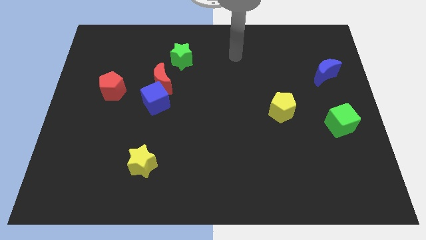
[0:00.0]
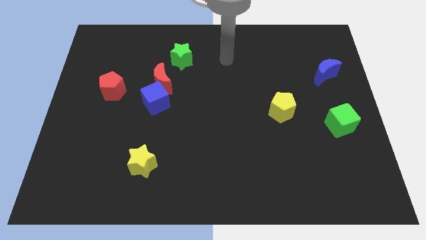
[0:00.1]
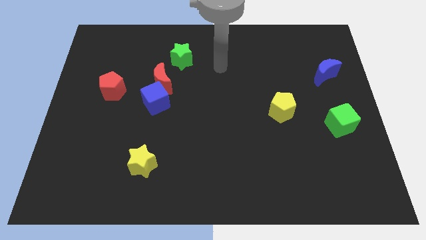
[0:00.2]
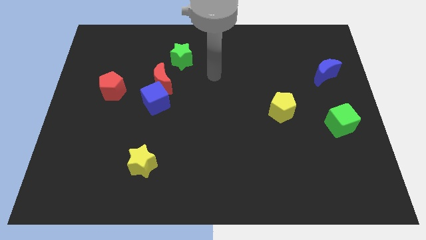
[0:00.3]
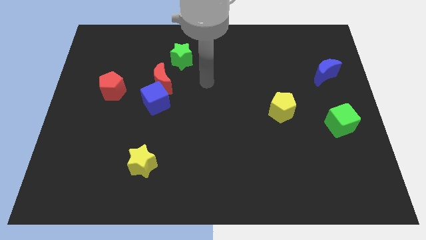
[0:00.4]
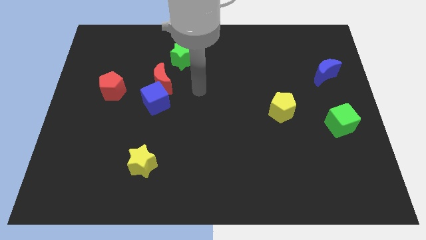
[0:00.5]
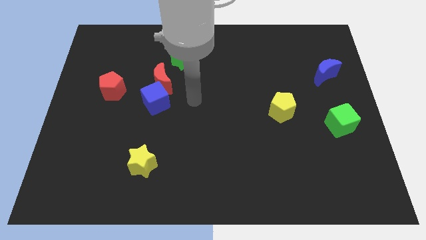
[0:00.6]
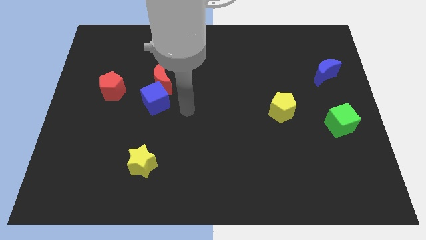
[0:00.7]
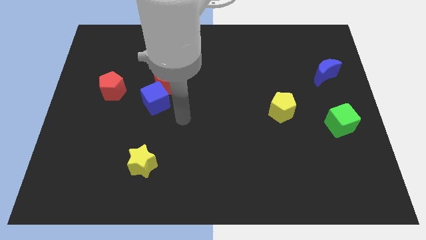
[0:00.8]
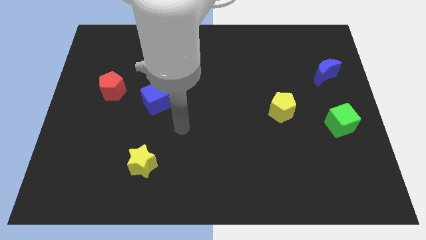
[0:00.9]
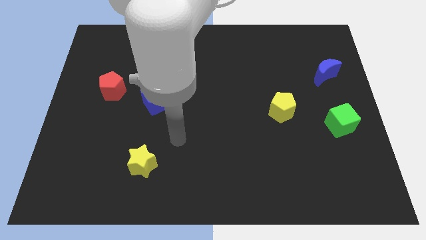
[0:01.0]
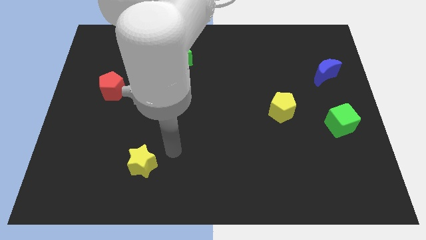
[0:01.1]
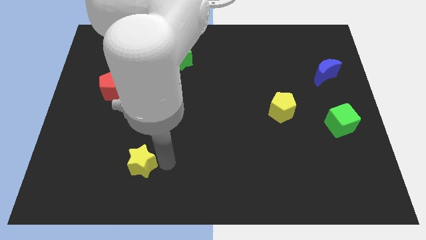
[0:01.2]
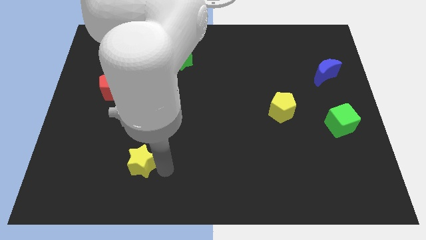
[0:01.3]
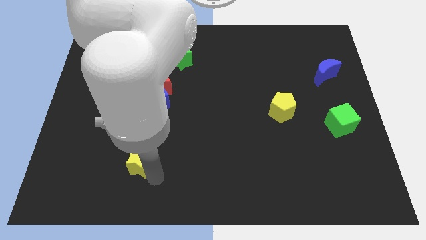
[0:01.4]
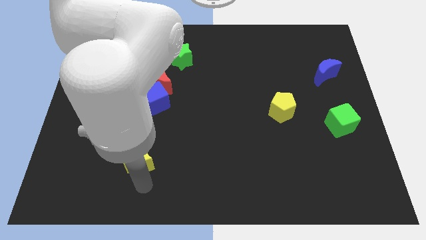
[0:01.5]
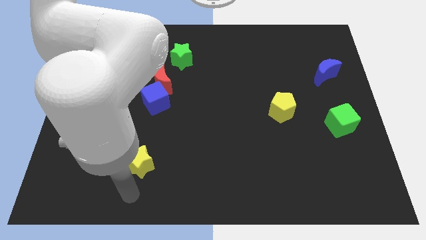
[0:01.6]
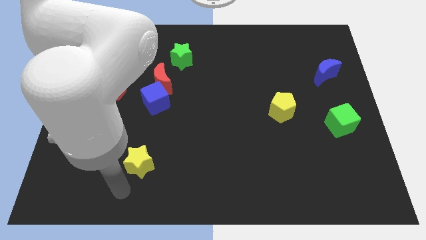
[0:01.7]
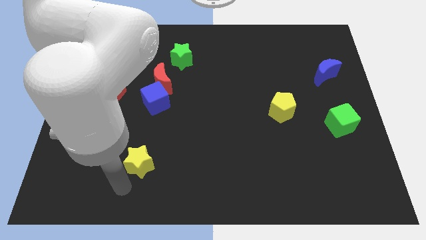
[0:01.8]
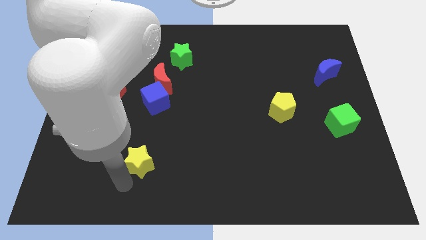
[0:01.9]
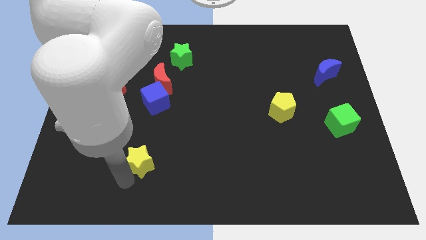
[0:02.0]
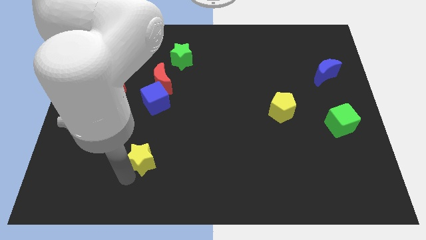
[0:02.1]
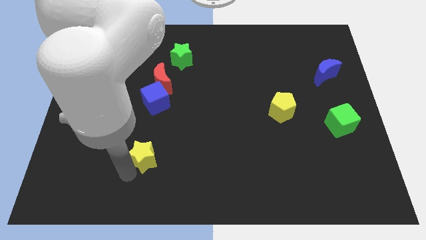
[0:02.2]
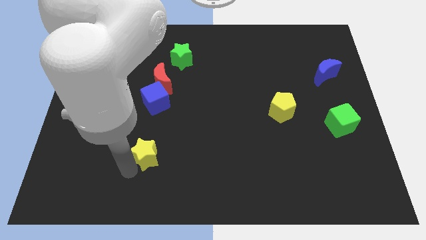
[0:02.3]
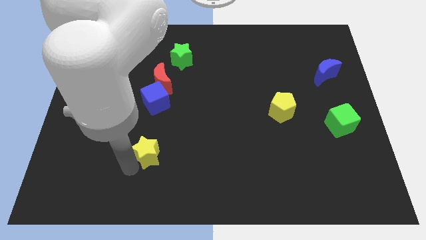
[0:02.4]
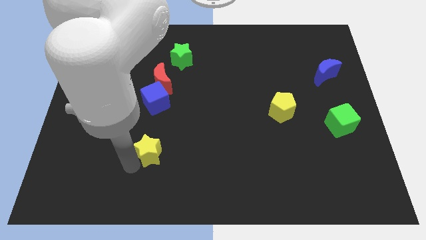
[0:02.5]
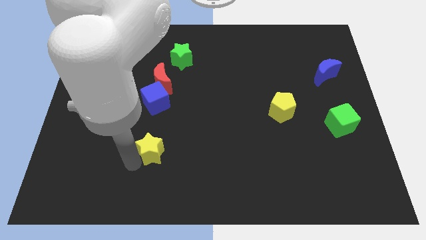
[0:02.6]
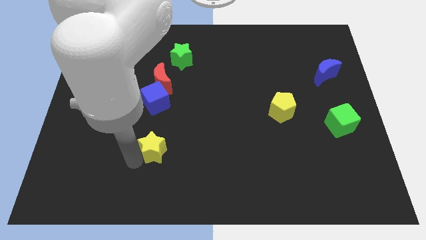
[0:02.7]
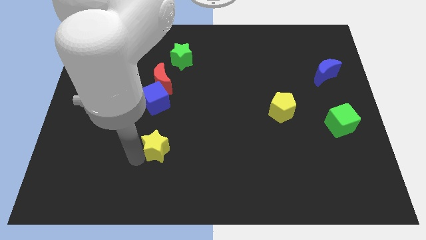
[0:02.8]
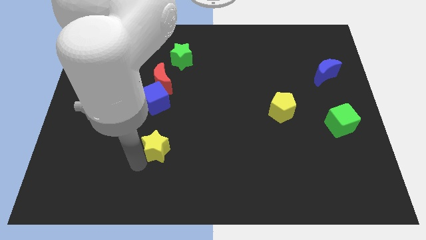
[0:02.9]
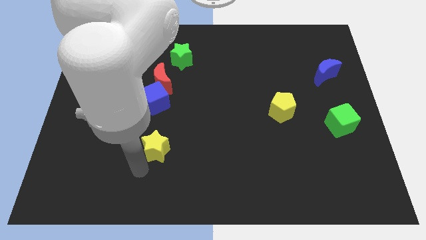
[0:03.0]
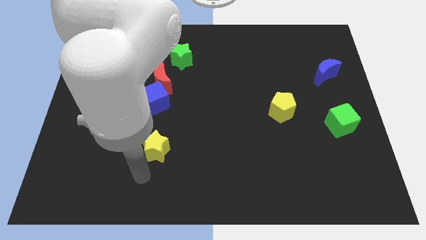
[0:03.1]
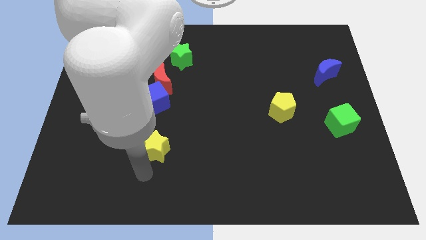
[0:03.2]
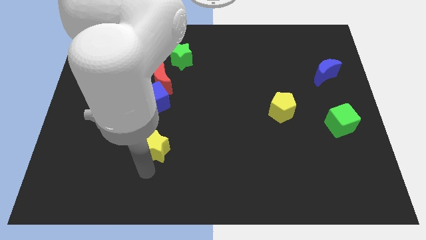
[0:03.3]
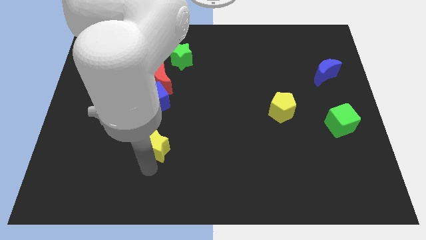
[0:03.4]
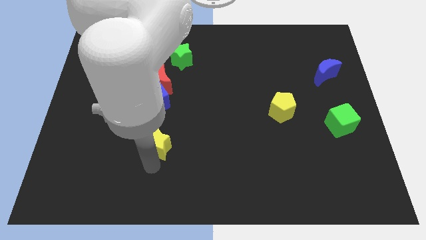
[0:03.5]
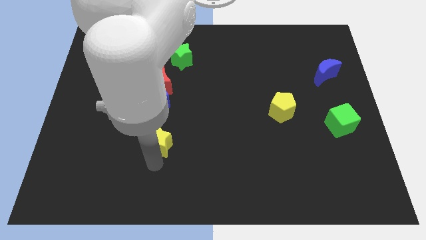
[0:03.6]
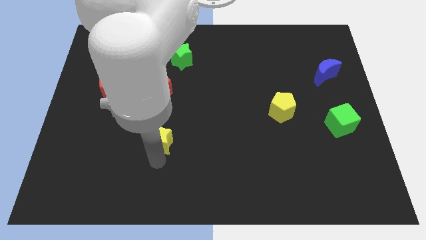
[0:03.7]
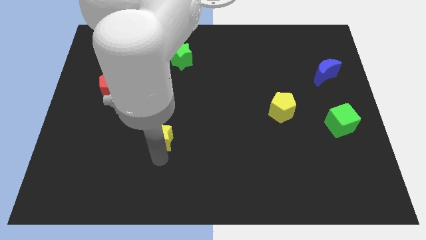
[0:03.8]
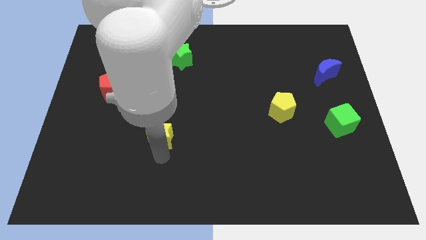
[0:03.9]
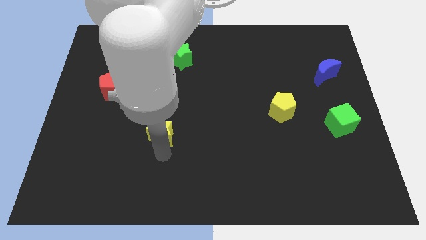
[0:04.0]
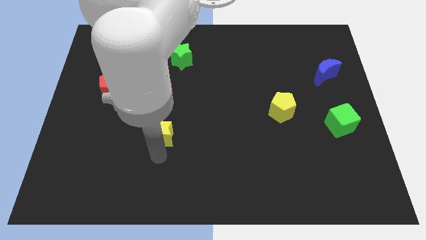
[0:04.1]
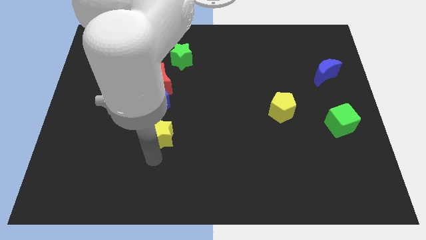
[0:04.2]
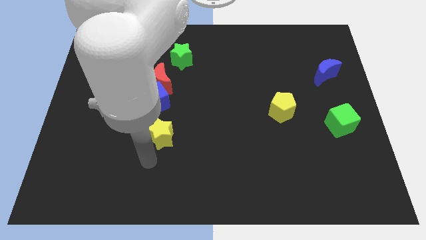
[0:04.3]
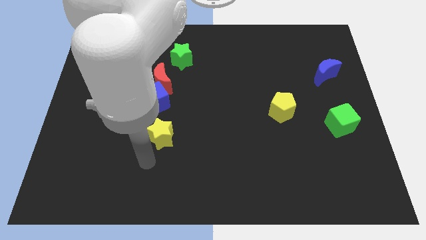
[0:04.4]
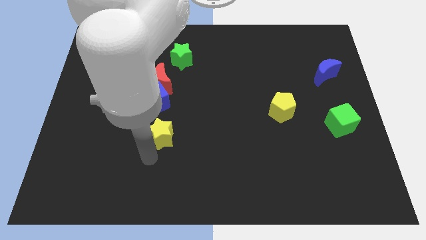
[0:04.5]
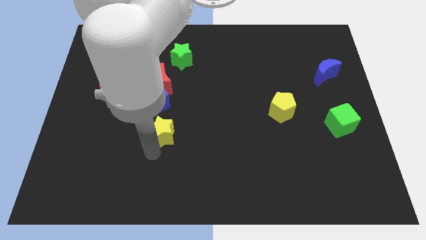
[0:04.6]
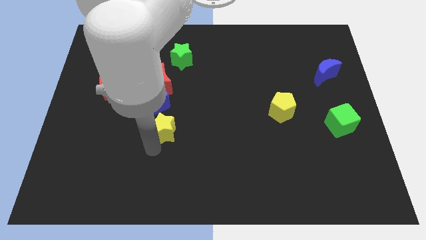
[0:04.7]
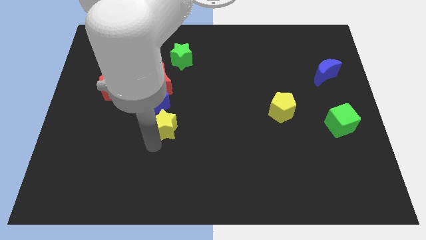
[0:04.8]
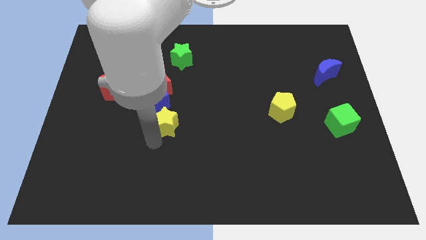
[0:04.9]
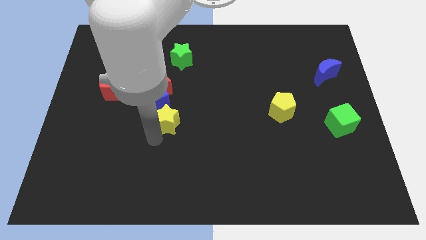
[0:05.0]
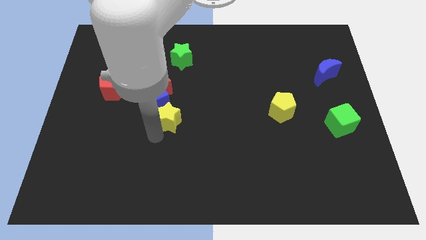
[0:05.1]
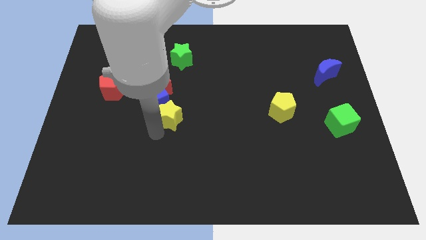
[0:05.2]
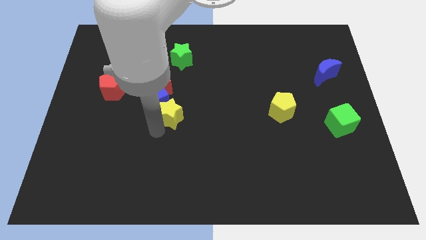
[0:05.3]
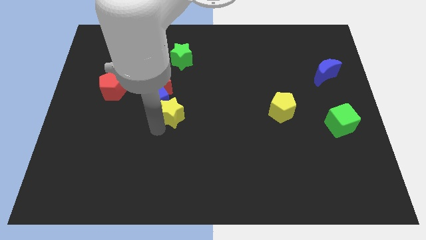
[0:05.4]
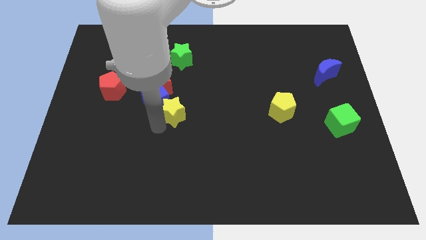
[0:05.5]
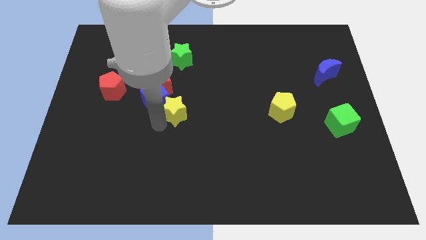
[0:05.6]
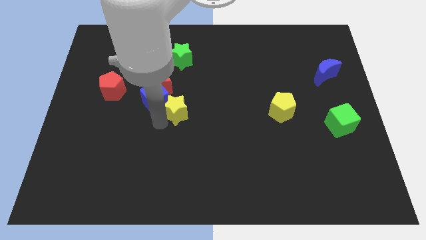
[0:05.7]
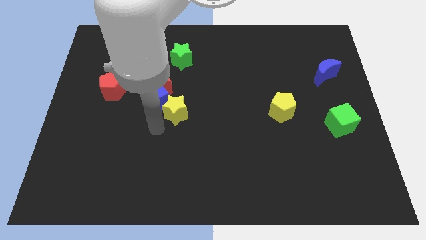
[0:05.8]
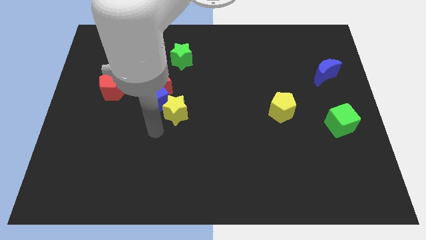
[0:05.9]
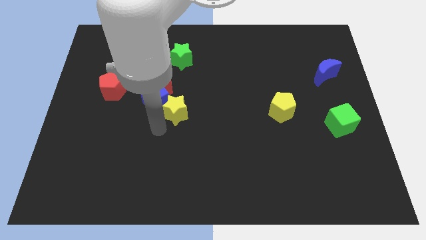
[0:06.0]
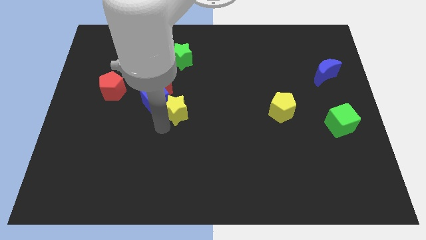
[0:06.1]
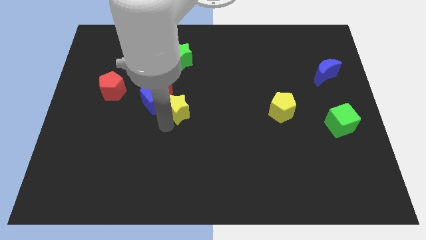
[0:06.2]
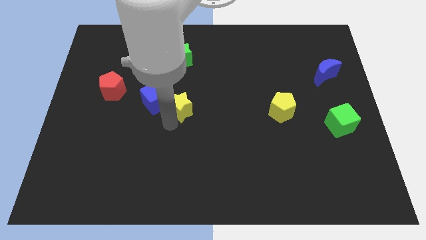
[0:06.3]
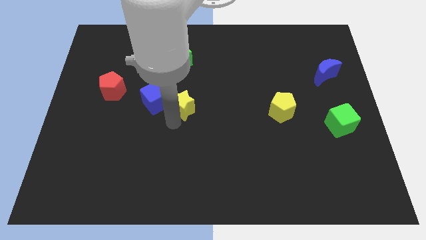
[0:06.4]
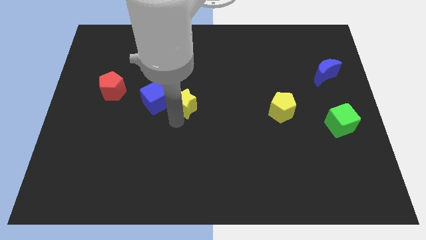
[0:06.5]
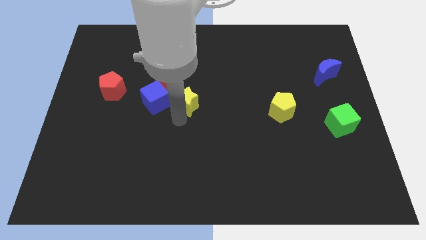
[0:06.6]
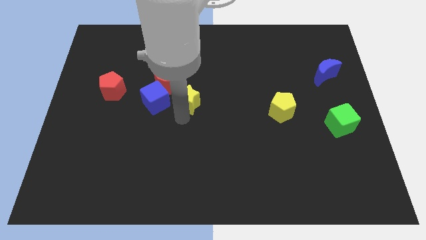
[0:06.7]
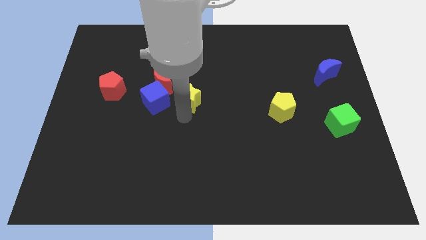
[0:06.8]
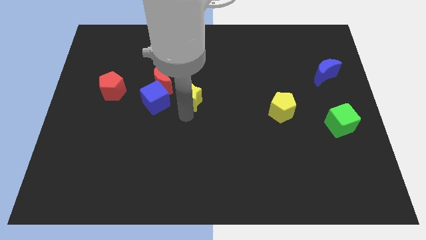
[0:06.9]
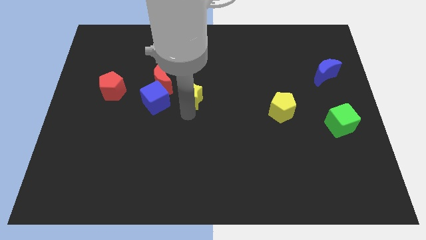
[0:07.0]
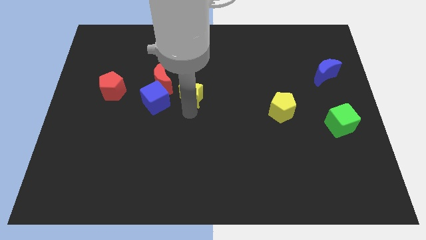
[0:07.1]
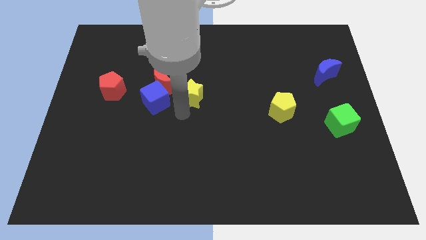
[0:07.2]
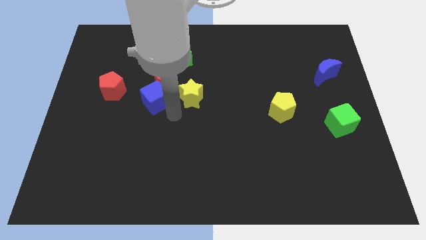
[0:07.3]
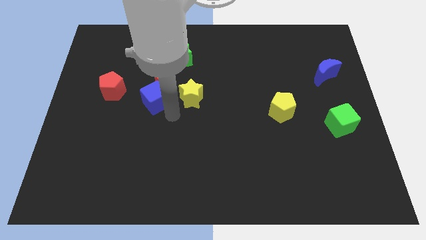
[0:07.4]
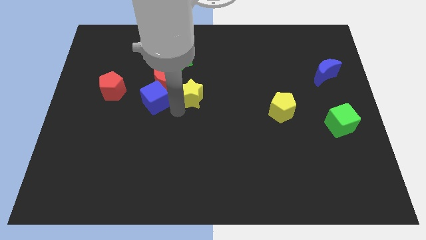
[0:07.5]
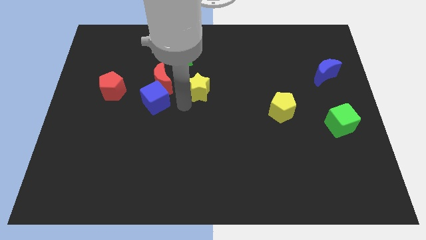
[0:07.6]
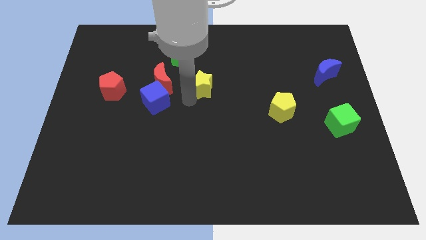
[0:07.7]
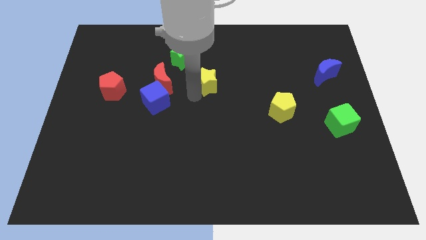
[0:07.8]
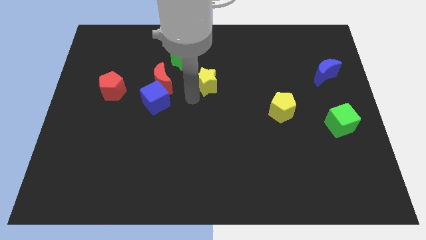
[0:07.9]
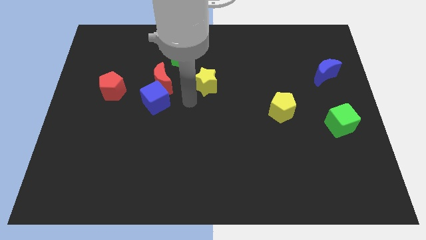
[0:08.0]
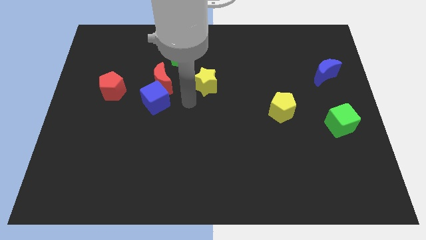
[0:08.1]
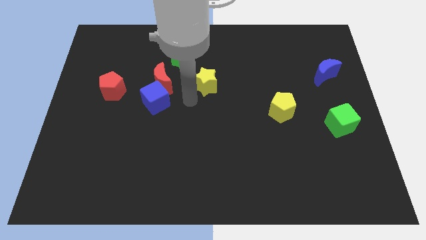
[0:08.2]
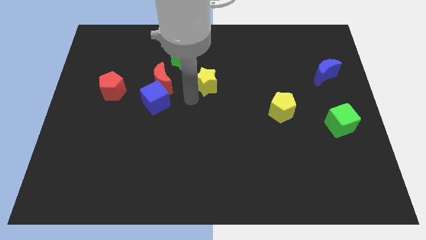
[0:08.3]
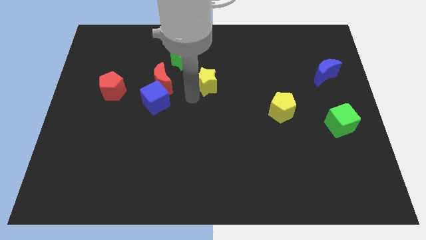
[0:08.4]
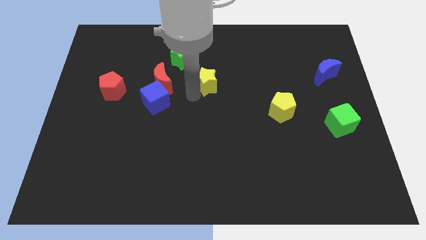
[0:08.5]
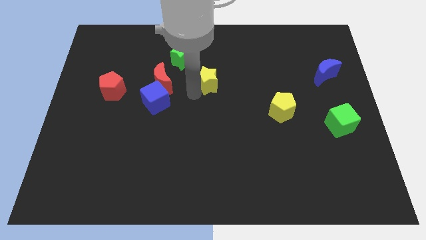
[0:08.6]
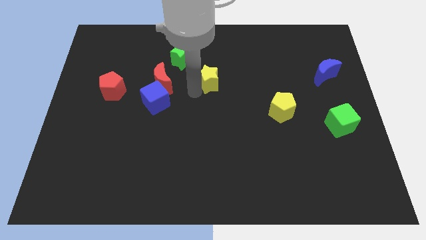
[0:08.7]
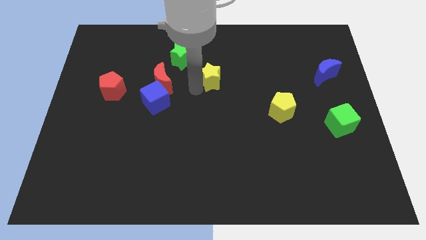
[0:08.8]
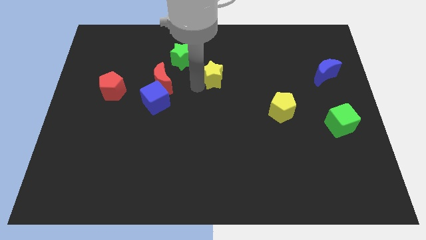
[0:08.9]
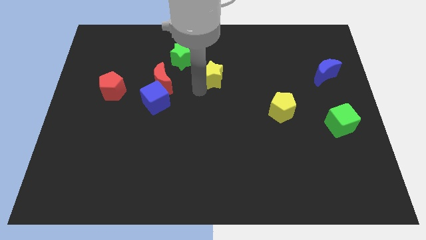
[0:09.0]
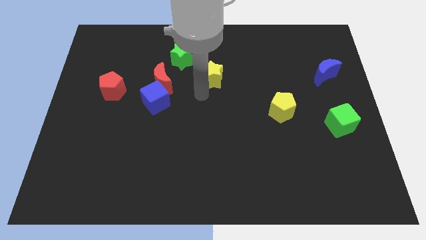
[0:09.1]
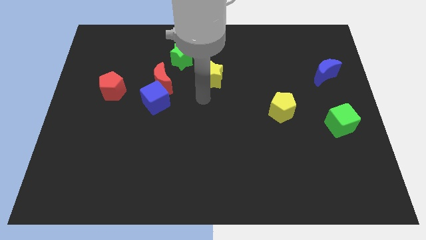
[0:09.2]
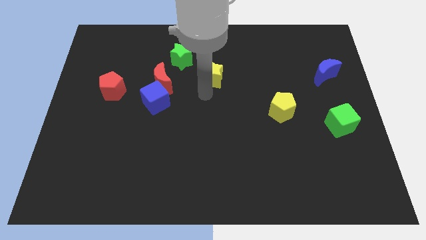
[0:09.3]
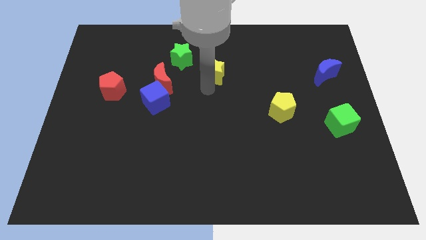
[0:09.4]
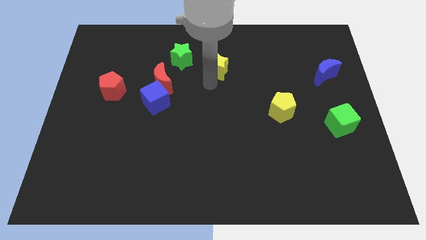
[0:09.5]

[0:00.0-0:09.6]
move the yellow star to the right of the green star
